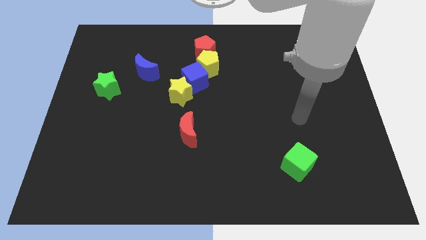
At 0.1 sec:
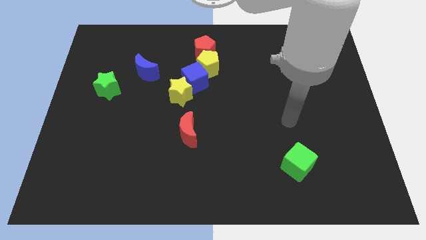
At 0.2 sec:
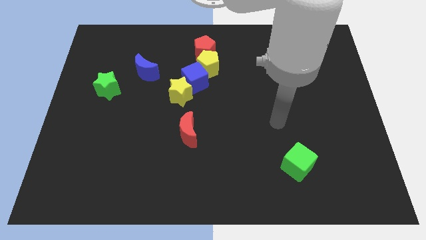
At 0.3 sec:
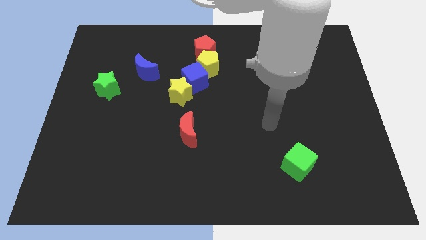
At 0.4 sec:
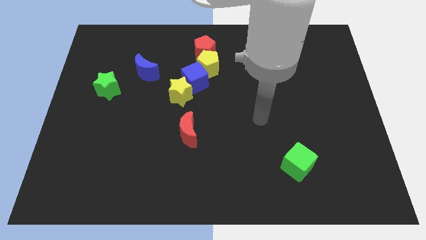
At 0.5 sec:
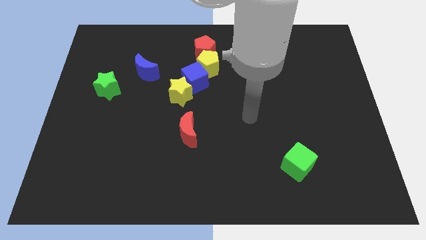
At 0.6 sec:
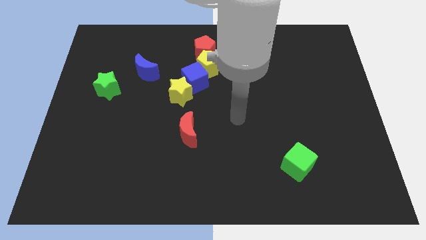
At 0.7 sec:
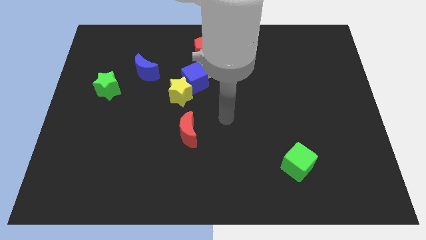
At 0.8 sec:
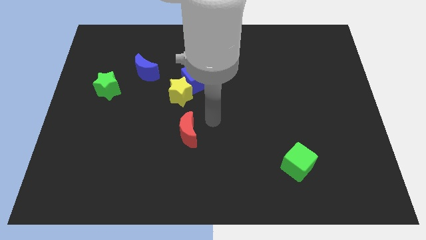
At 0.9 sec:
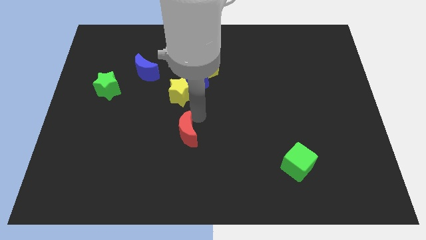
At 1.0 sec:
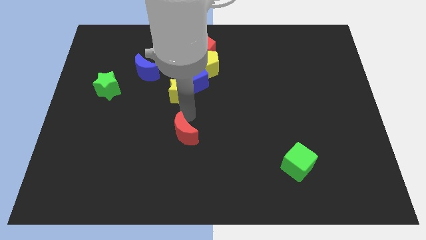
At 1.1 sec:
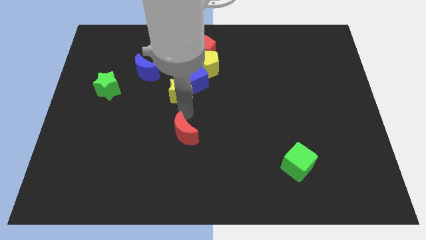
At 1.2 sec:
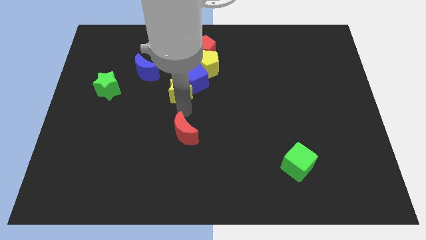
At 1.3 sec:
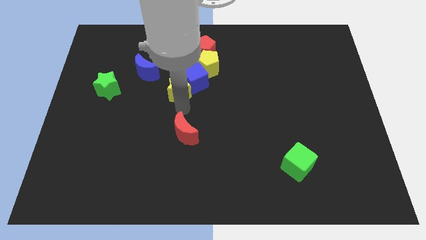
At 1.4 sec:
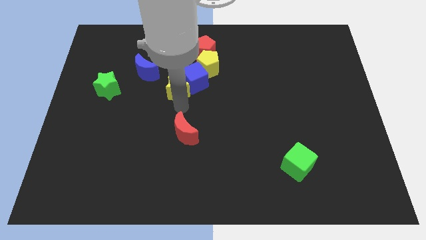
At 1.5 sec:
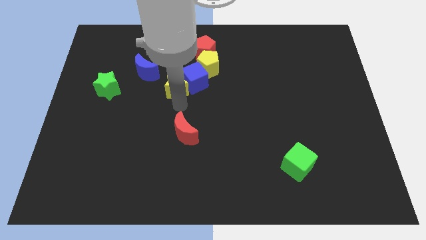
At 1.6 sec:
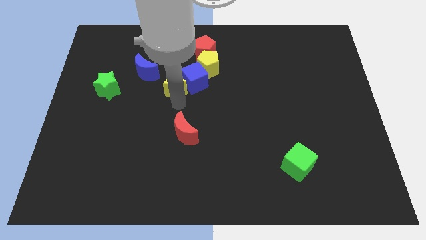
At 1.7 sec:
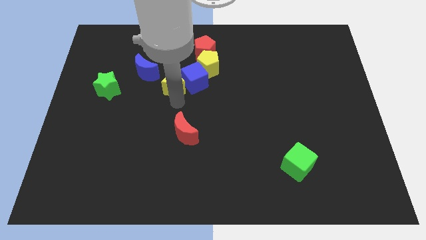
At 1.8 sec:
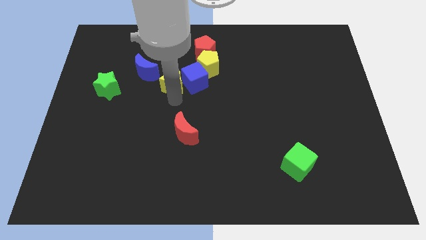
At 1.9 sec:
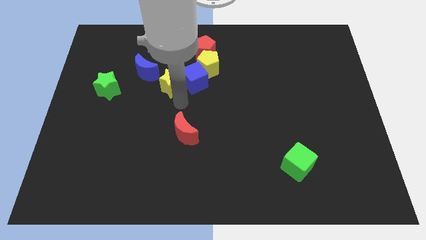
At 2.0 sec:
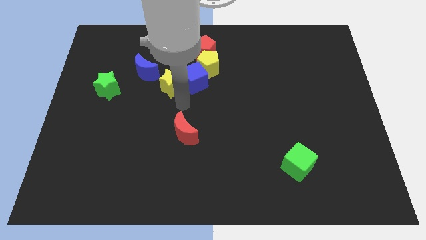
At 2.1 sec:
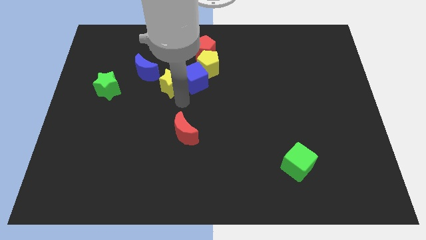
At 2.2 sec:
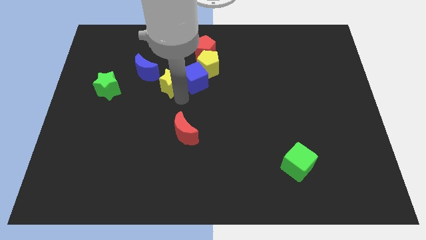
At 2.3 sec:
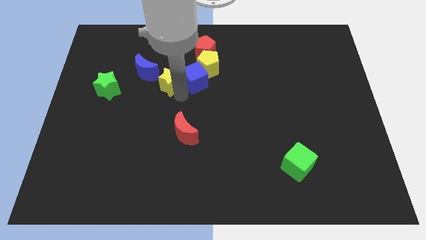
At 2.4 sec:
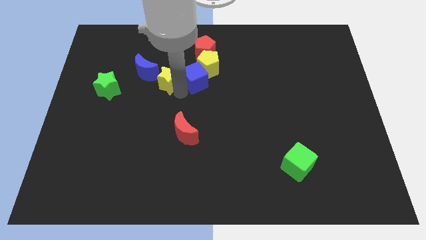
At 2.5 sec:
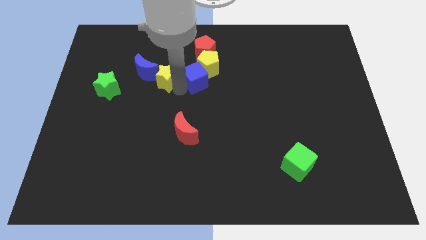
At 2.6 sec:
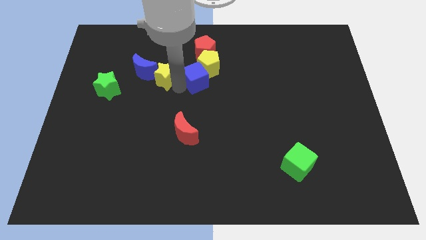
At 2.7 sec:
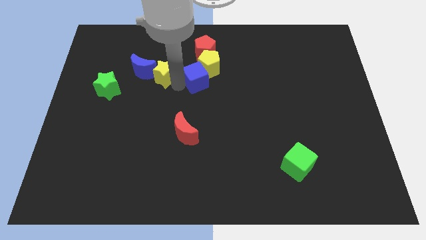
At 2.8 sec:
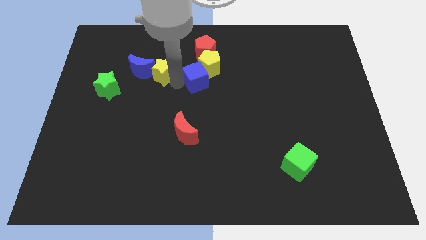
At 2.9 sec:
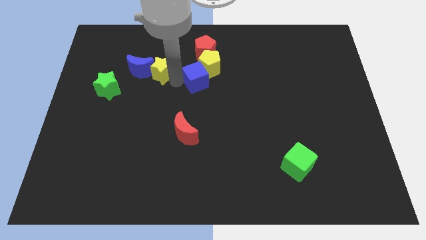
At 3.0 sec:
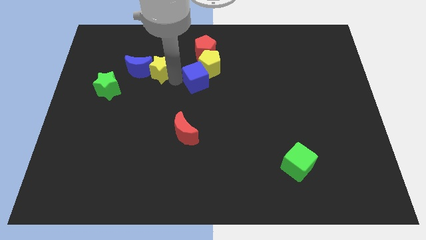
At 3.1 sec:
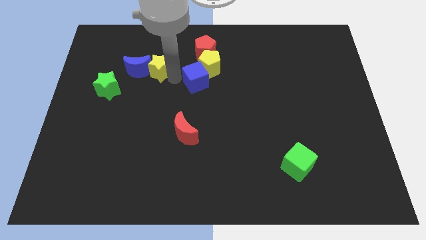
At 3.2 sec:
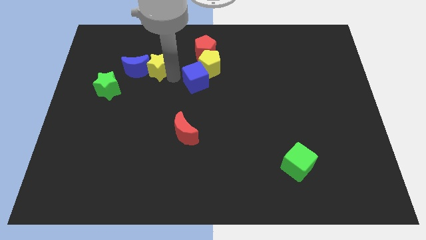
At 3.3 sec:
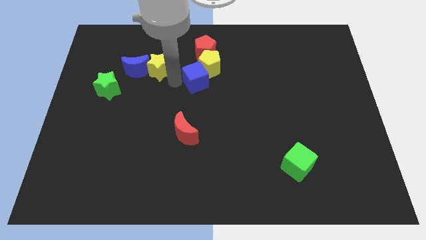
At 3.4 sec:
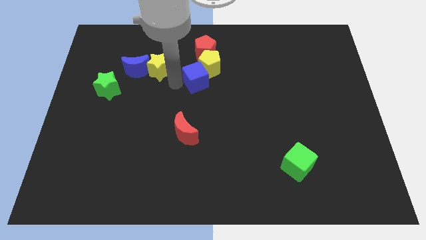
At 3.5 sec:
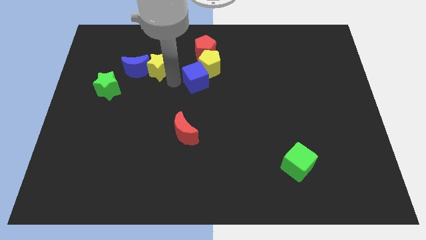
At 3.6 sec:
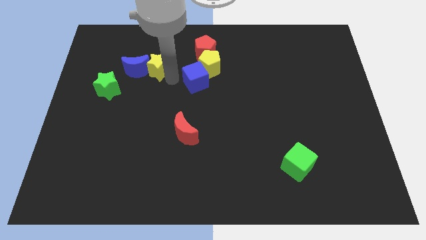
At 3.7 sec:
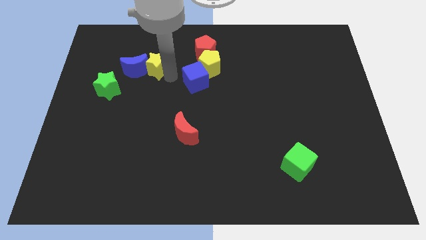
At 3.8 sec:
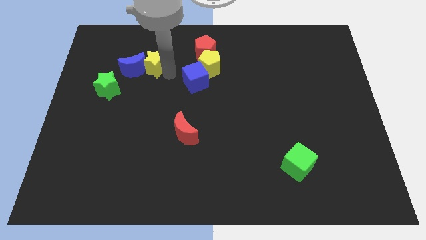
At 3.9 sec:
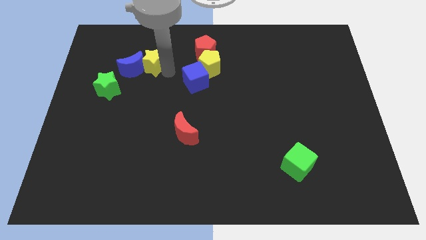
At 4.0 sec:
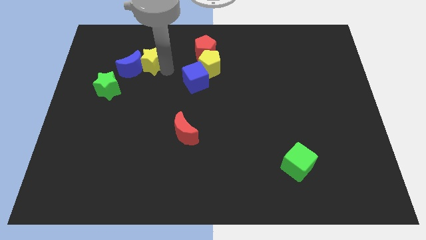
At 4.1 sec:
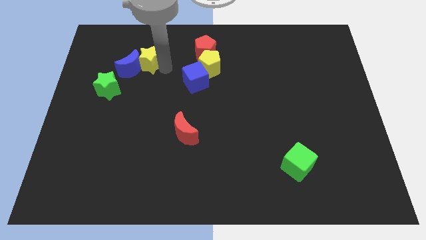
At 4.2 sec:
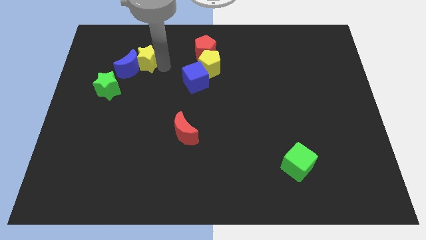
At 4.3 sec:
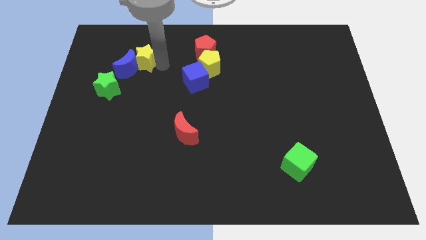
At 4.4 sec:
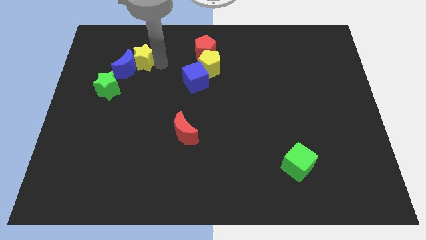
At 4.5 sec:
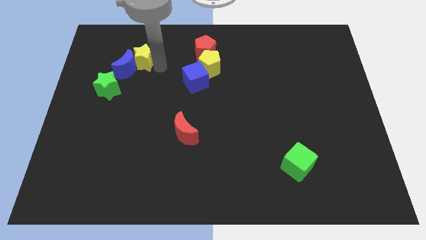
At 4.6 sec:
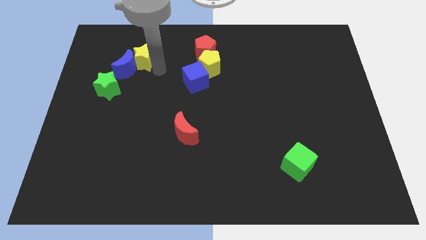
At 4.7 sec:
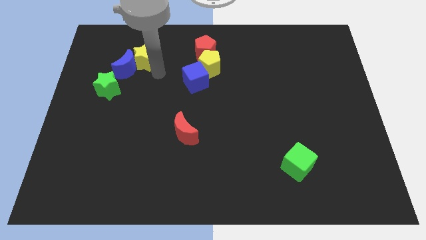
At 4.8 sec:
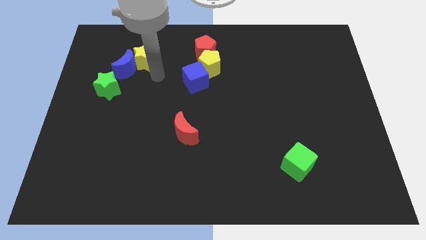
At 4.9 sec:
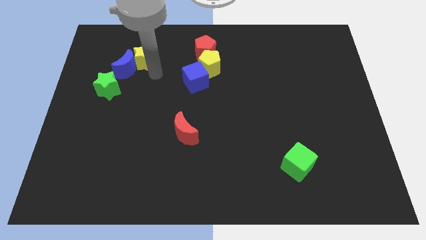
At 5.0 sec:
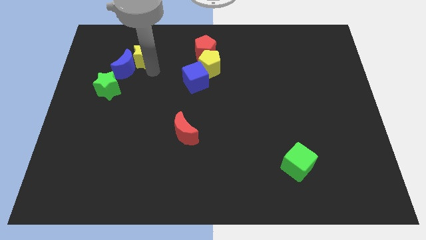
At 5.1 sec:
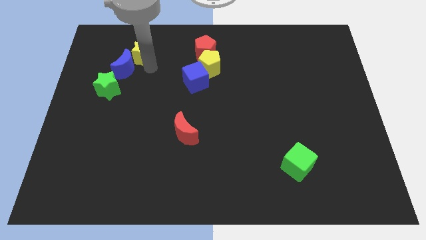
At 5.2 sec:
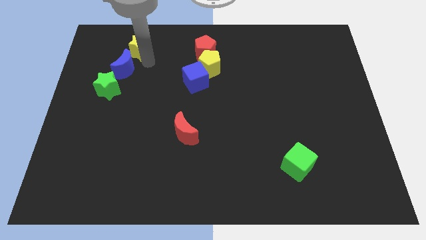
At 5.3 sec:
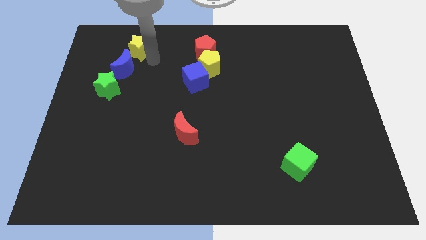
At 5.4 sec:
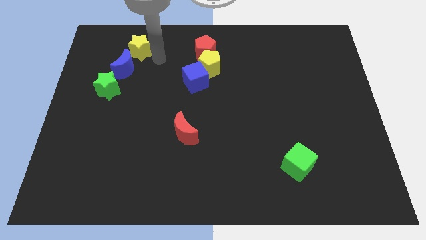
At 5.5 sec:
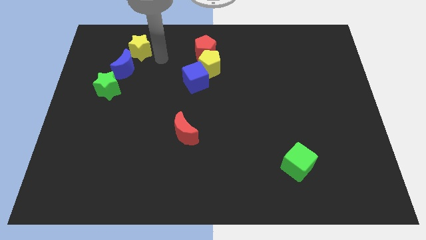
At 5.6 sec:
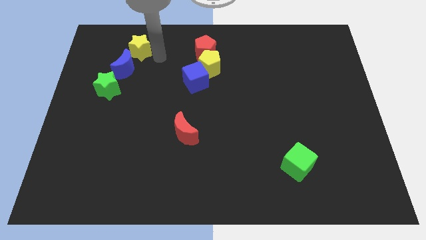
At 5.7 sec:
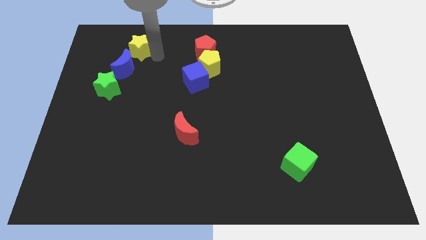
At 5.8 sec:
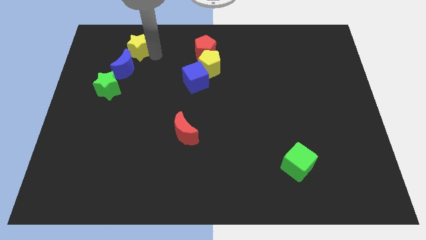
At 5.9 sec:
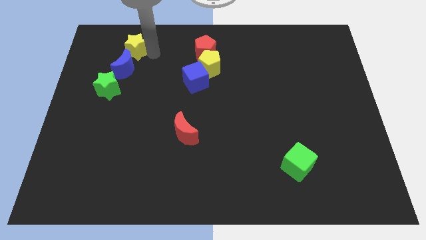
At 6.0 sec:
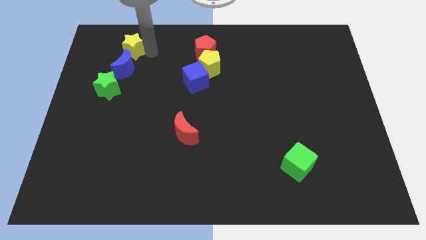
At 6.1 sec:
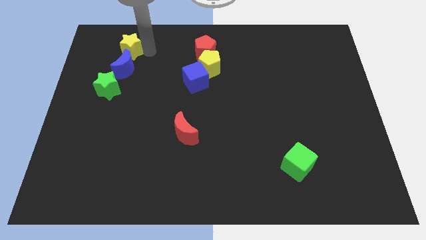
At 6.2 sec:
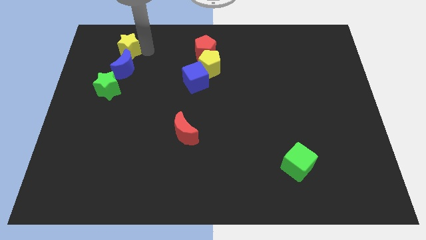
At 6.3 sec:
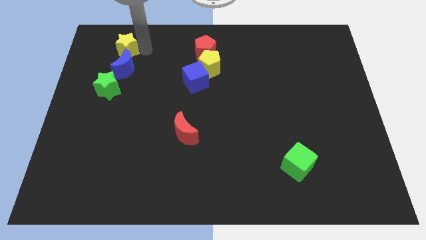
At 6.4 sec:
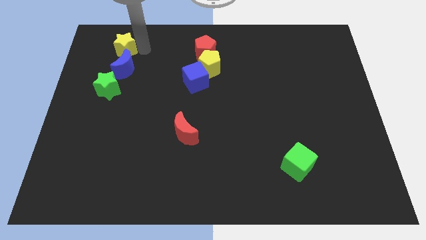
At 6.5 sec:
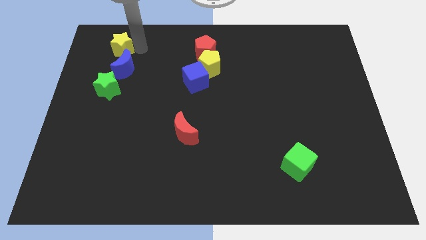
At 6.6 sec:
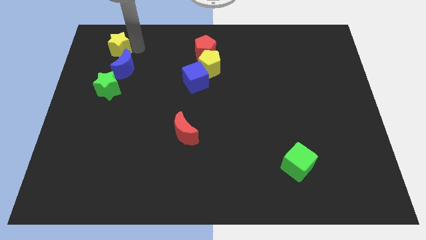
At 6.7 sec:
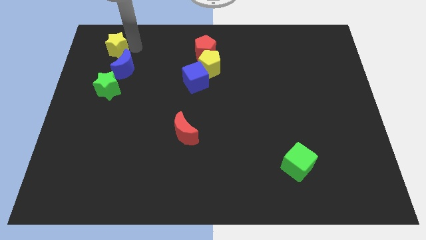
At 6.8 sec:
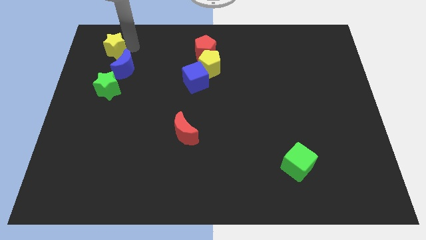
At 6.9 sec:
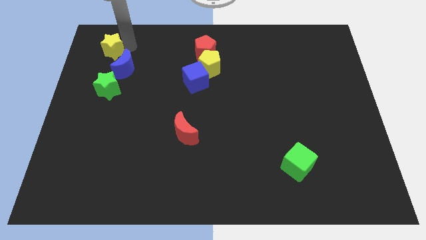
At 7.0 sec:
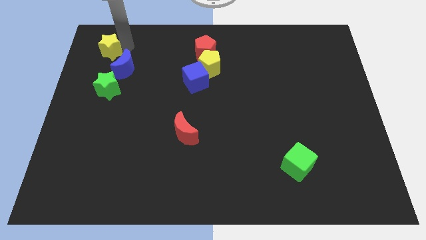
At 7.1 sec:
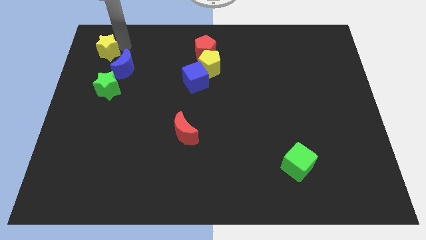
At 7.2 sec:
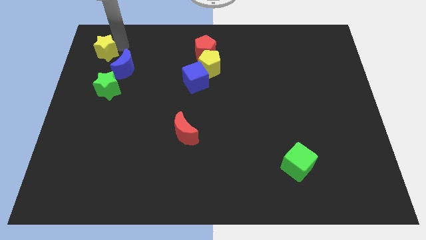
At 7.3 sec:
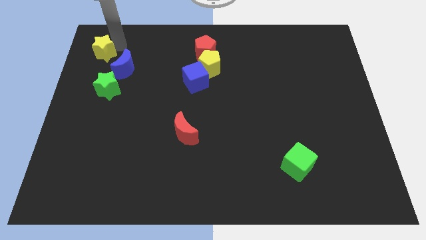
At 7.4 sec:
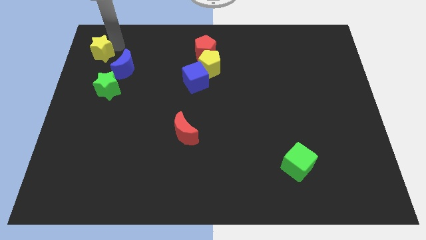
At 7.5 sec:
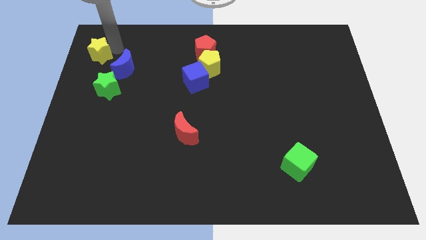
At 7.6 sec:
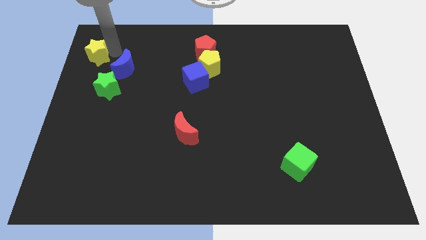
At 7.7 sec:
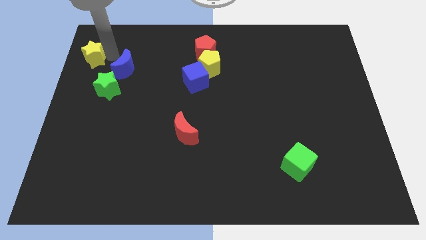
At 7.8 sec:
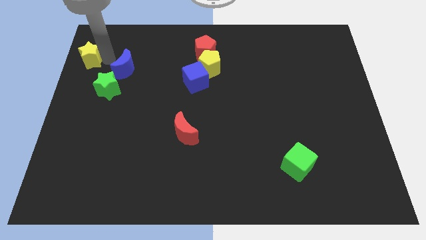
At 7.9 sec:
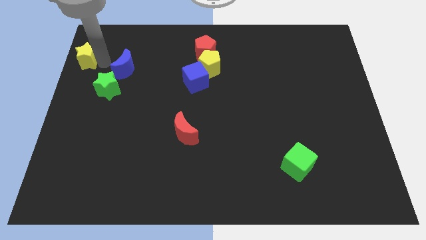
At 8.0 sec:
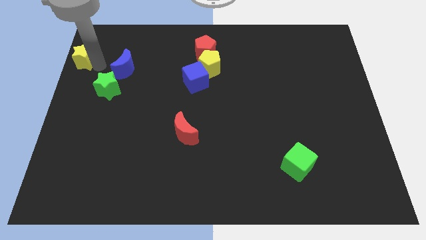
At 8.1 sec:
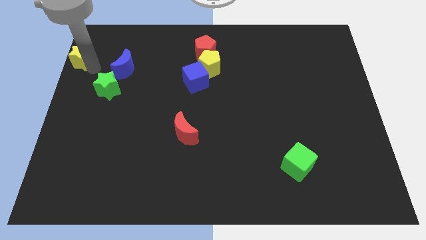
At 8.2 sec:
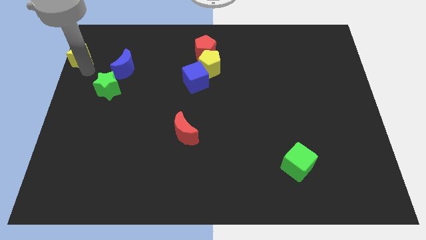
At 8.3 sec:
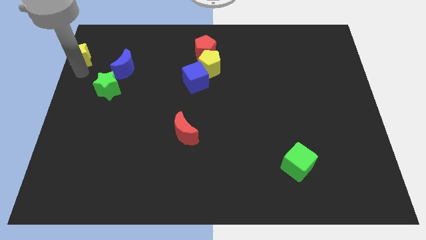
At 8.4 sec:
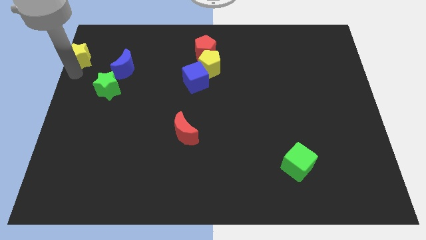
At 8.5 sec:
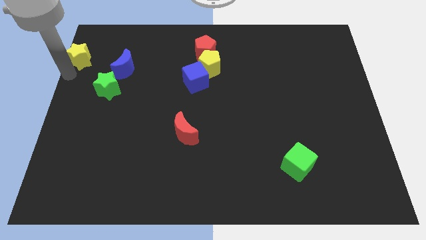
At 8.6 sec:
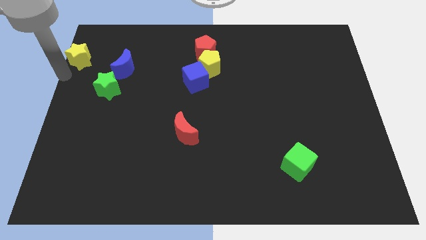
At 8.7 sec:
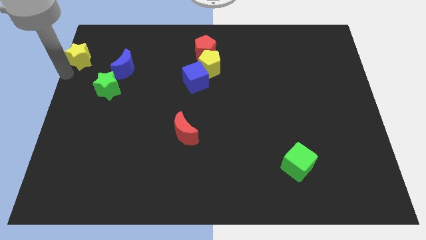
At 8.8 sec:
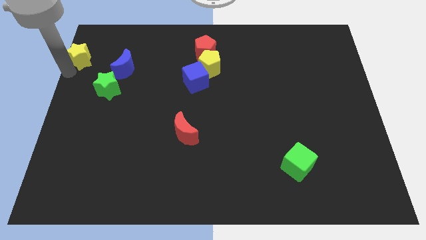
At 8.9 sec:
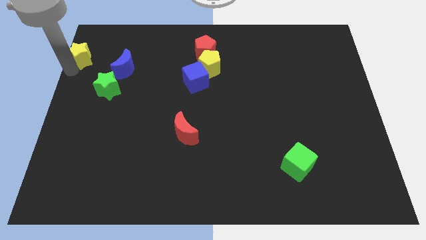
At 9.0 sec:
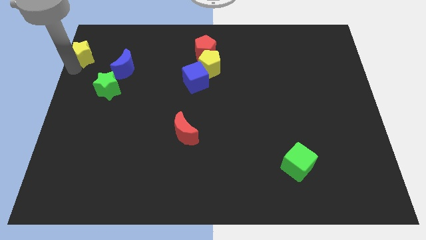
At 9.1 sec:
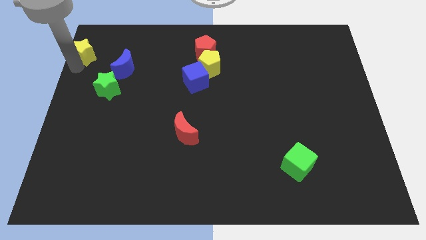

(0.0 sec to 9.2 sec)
put the yellow star to the top left corner
